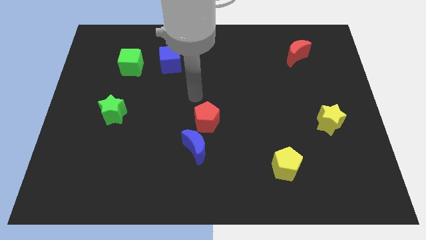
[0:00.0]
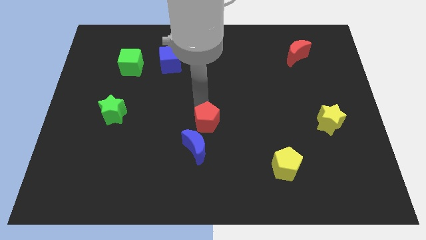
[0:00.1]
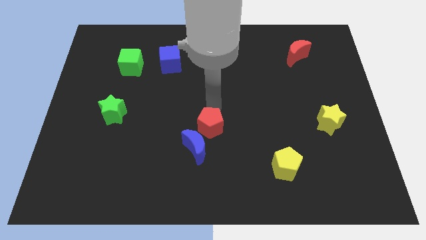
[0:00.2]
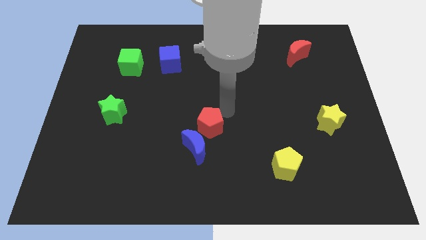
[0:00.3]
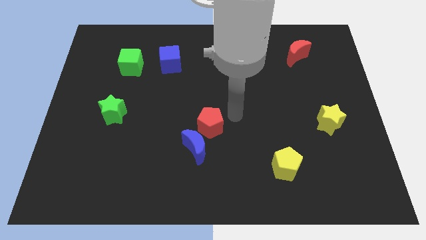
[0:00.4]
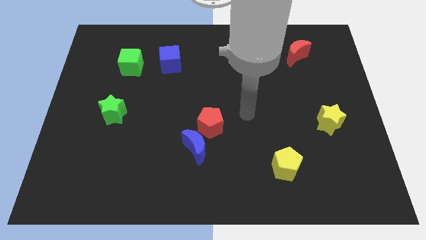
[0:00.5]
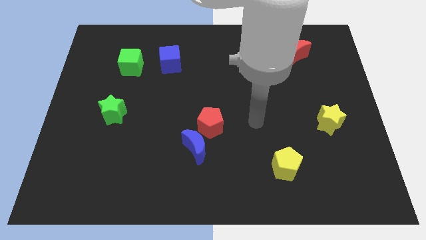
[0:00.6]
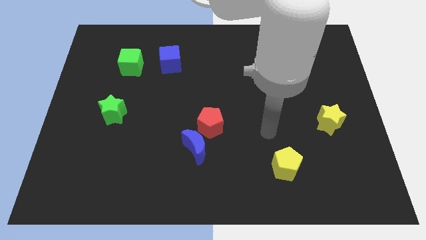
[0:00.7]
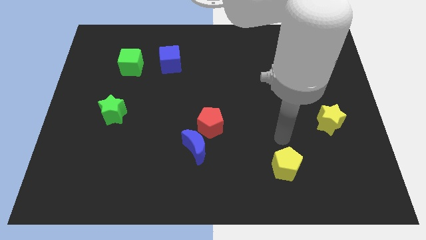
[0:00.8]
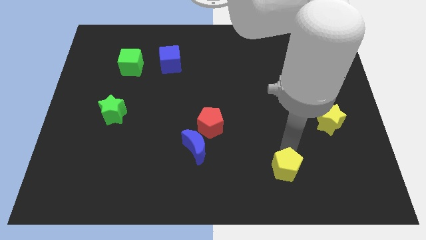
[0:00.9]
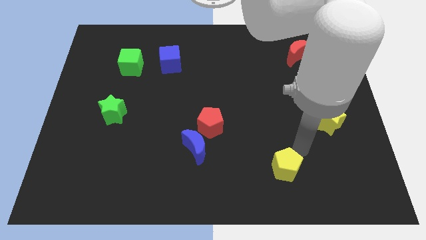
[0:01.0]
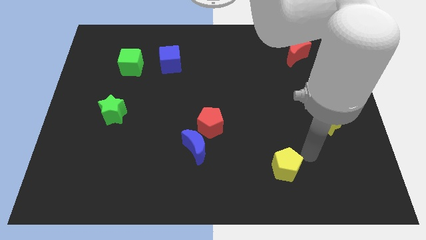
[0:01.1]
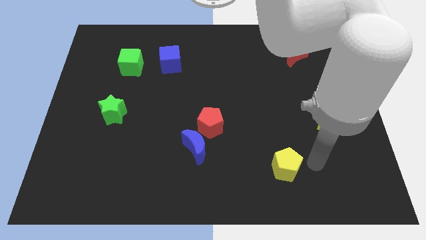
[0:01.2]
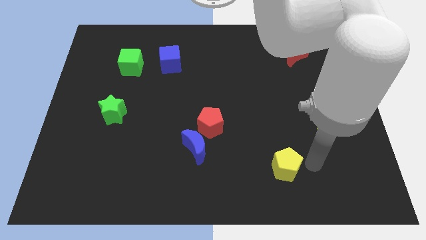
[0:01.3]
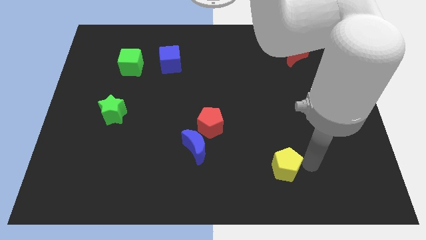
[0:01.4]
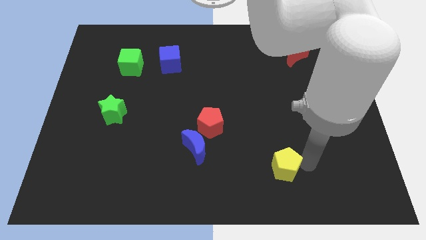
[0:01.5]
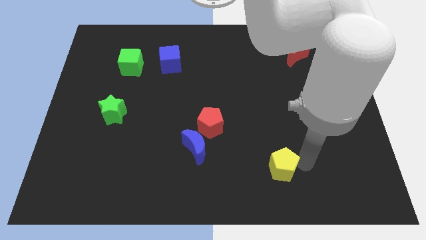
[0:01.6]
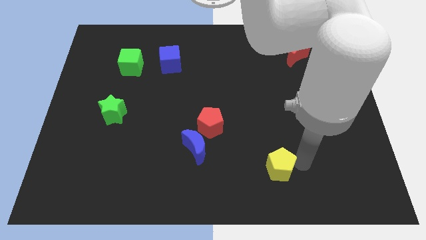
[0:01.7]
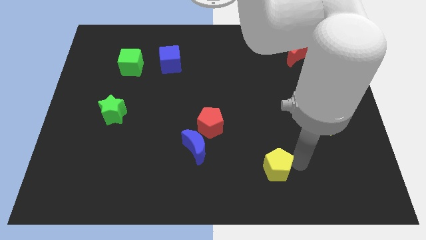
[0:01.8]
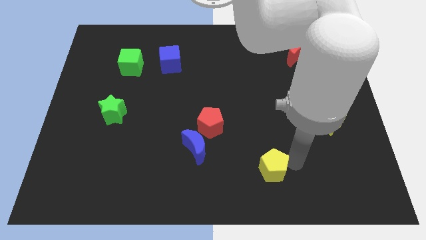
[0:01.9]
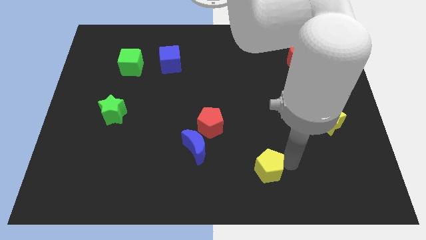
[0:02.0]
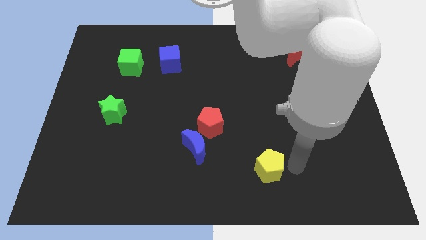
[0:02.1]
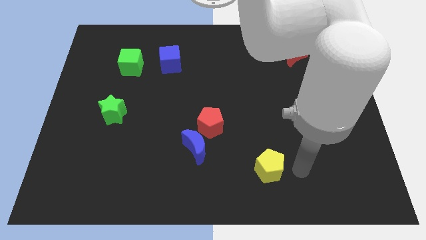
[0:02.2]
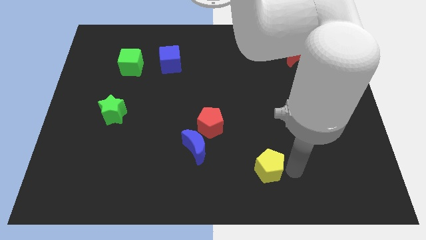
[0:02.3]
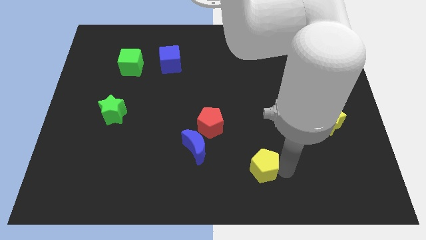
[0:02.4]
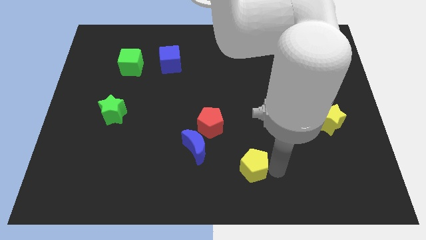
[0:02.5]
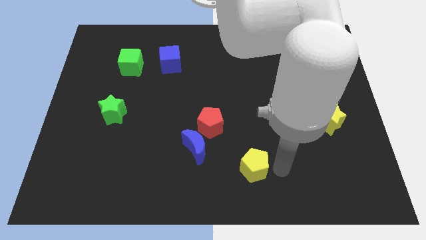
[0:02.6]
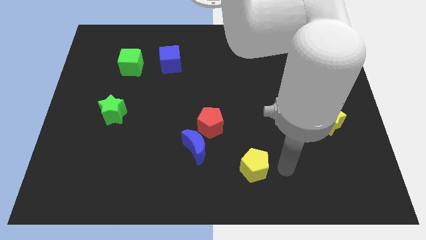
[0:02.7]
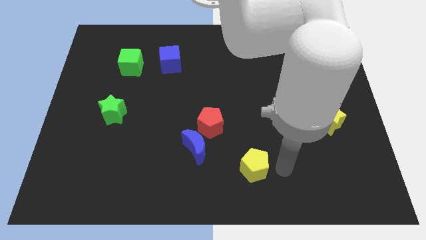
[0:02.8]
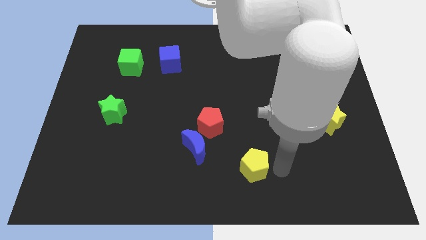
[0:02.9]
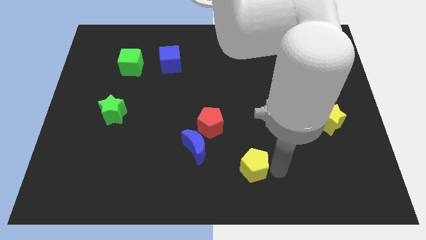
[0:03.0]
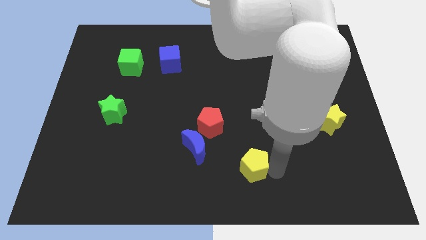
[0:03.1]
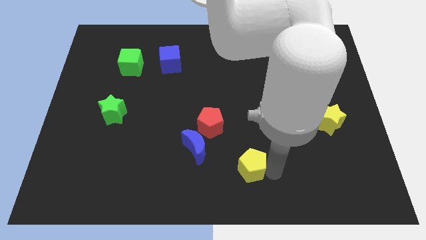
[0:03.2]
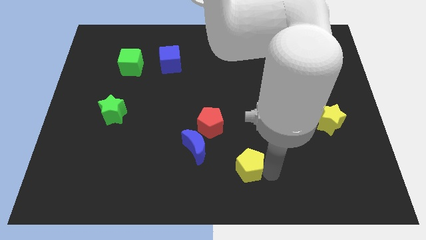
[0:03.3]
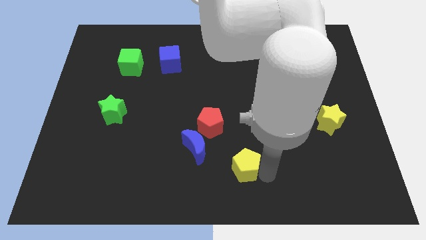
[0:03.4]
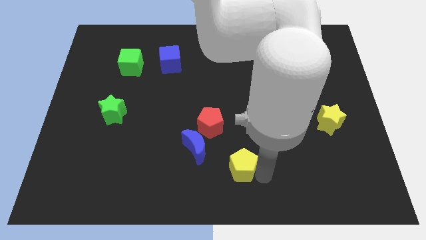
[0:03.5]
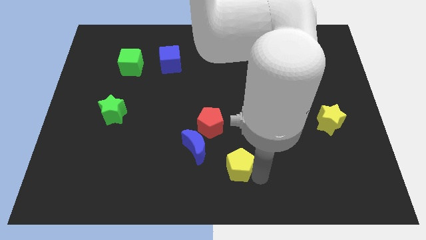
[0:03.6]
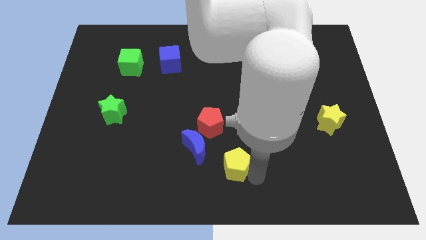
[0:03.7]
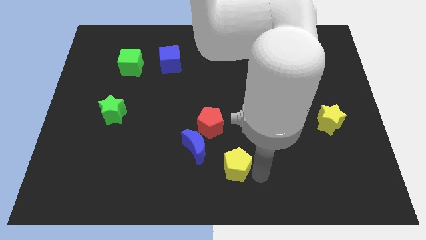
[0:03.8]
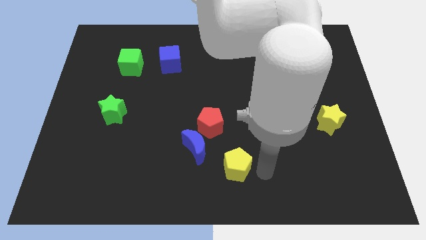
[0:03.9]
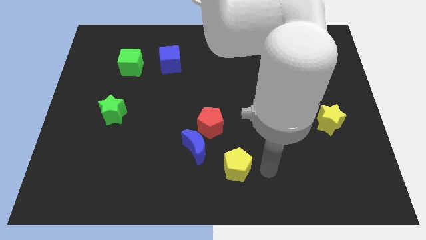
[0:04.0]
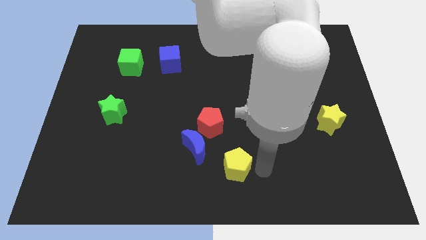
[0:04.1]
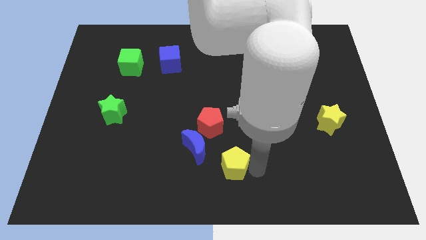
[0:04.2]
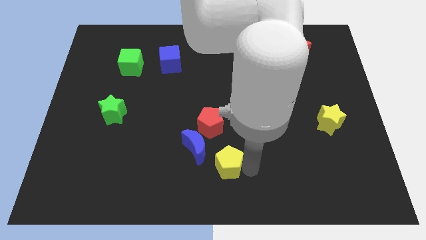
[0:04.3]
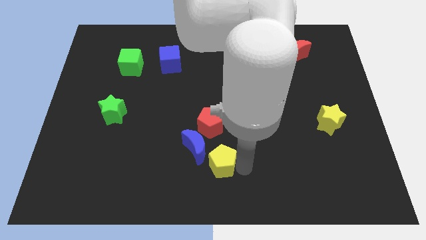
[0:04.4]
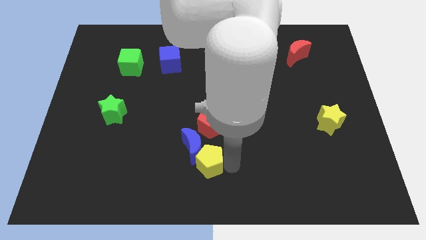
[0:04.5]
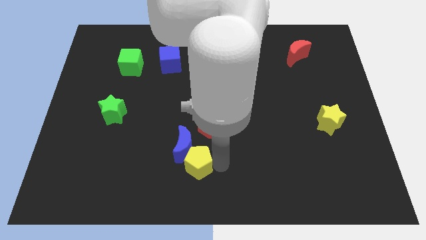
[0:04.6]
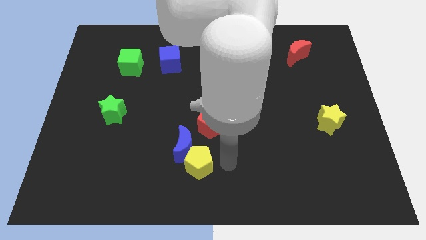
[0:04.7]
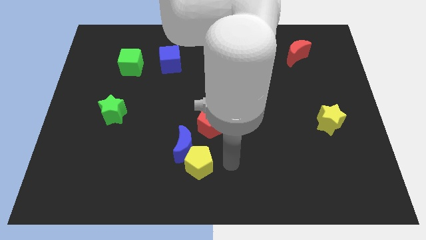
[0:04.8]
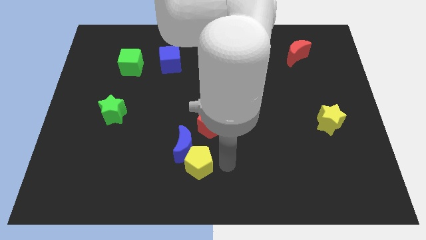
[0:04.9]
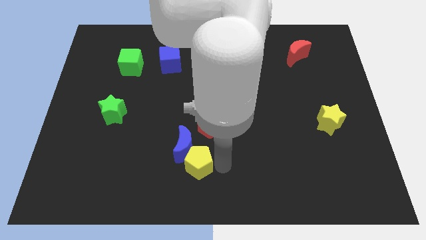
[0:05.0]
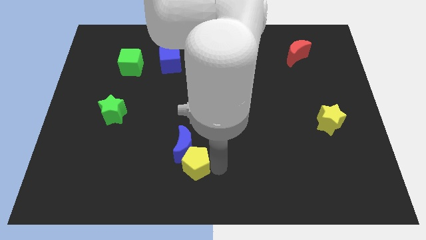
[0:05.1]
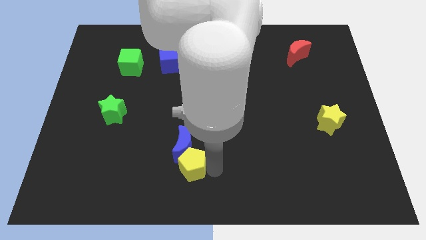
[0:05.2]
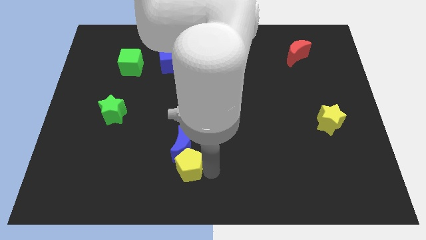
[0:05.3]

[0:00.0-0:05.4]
move the yellow pentagon to the bottom left side of the blue moon

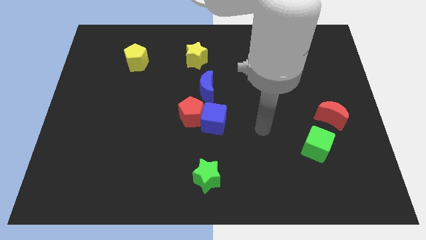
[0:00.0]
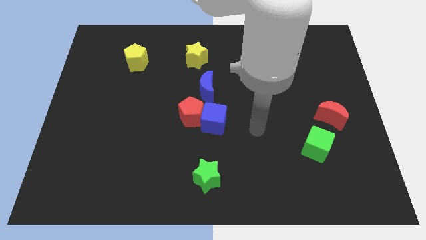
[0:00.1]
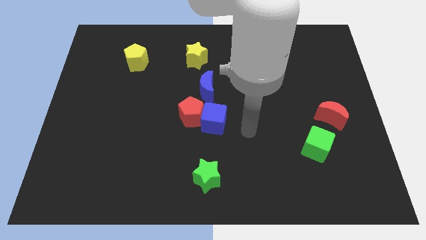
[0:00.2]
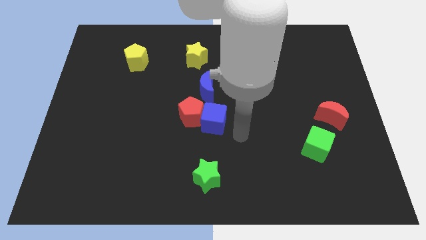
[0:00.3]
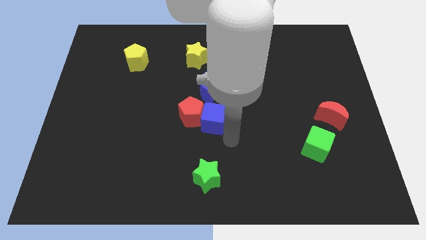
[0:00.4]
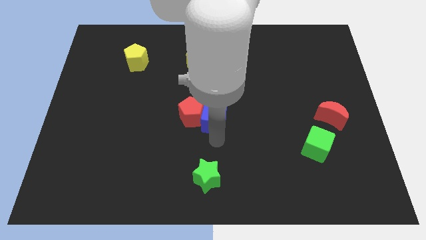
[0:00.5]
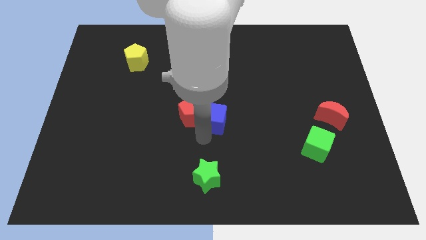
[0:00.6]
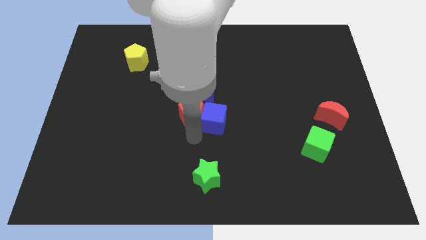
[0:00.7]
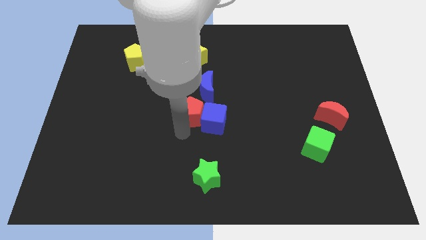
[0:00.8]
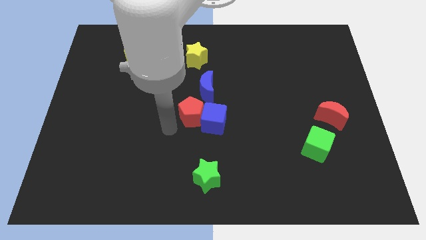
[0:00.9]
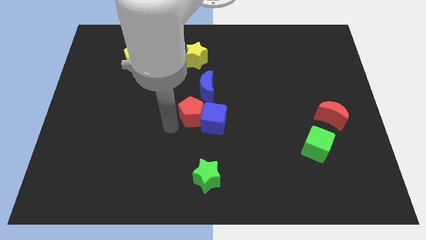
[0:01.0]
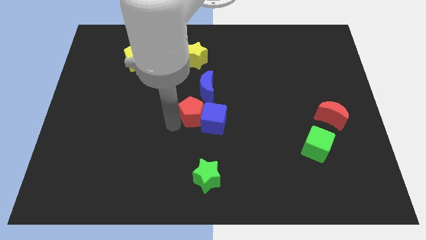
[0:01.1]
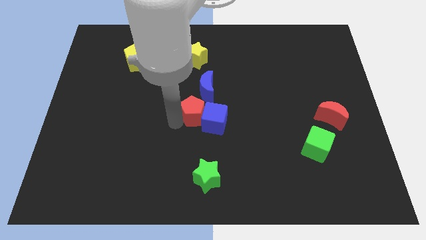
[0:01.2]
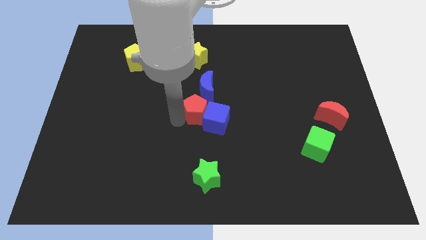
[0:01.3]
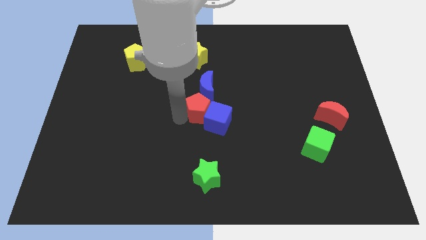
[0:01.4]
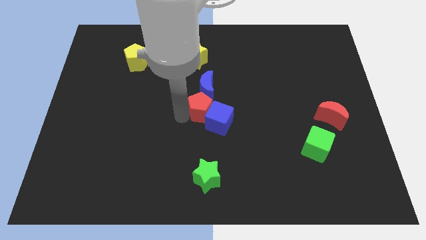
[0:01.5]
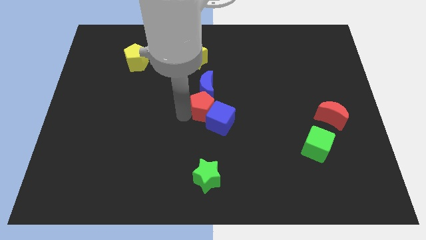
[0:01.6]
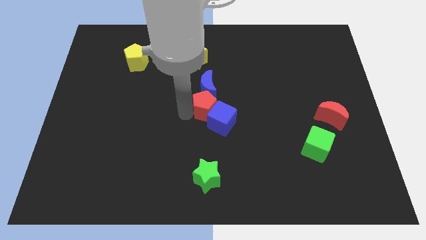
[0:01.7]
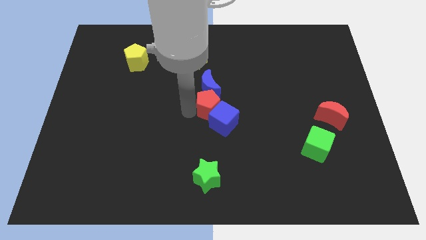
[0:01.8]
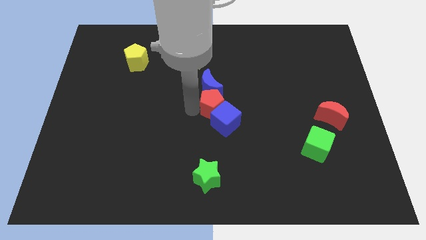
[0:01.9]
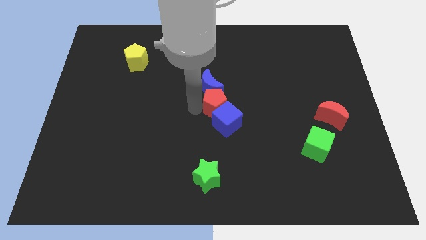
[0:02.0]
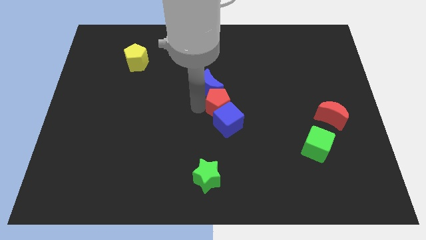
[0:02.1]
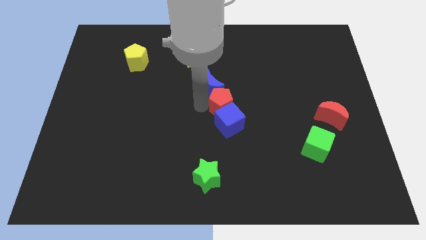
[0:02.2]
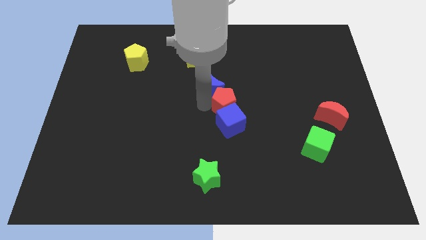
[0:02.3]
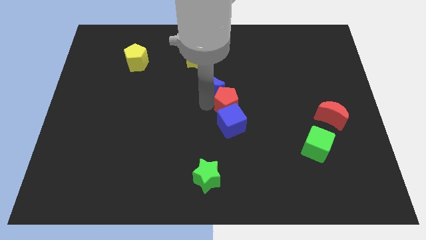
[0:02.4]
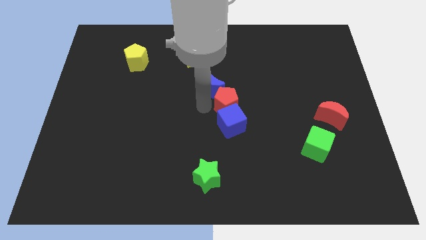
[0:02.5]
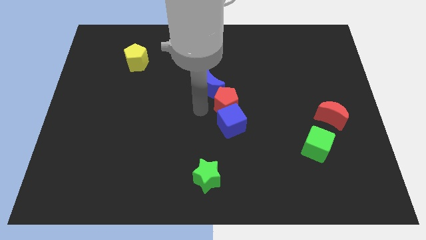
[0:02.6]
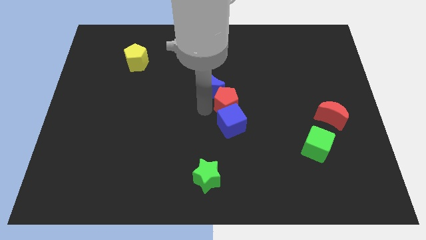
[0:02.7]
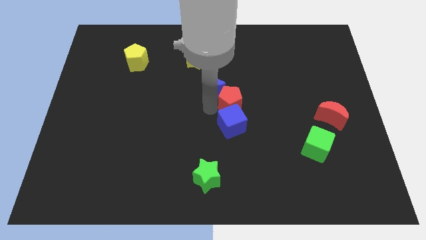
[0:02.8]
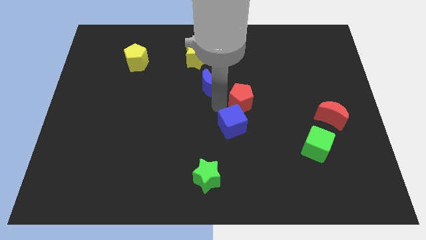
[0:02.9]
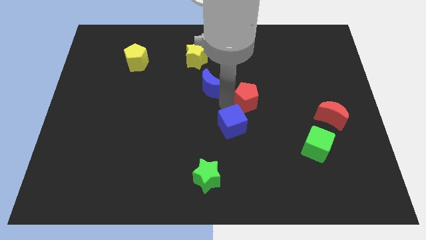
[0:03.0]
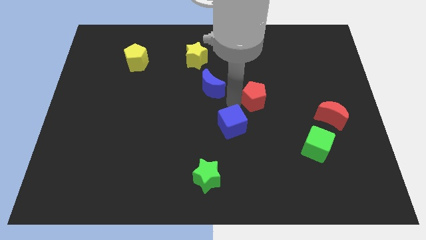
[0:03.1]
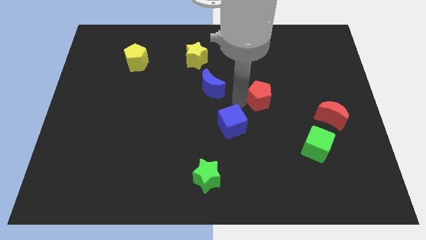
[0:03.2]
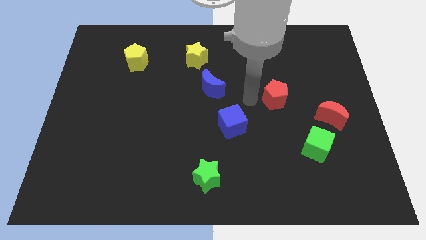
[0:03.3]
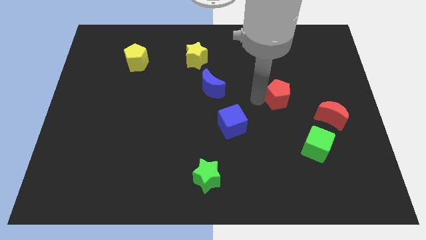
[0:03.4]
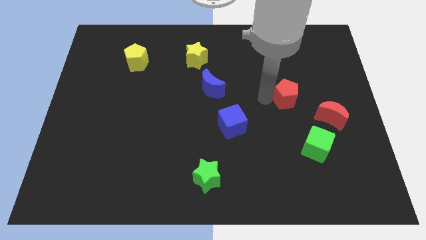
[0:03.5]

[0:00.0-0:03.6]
move the red pentagon diagonally up and to the left of the red moon
